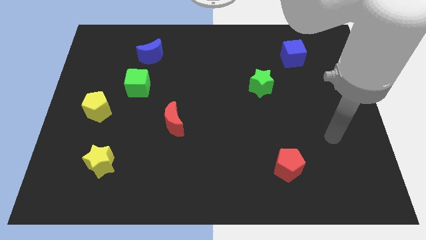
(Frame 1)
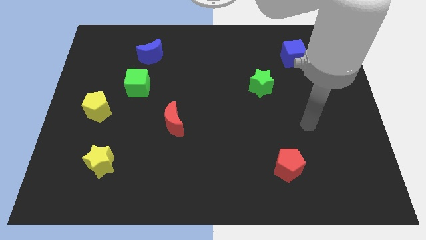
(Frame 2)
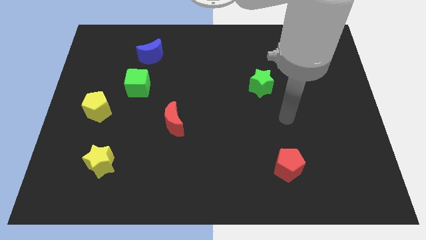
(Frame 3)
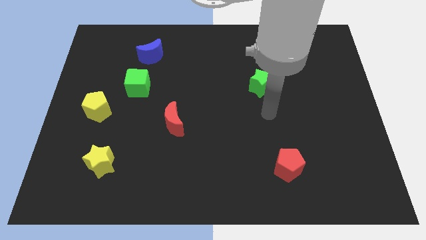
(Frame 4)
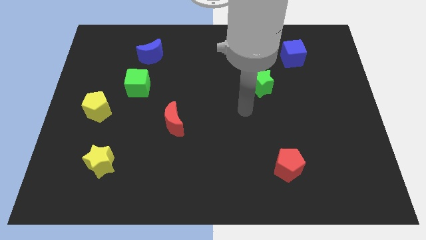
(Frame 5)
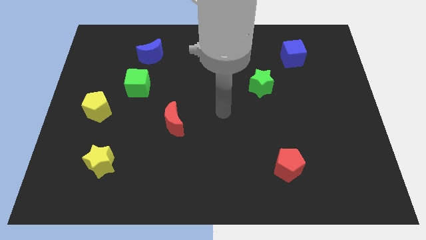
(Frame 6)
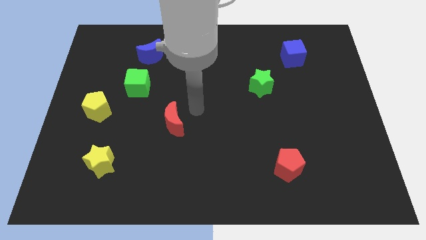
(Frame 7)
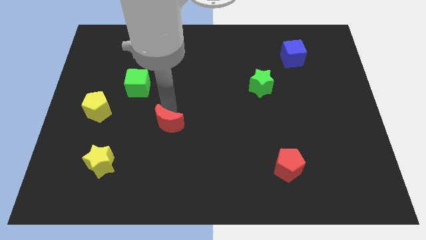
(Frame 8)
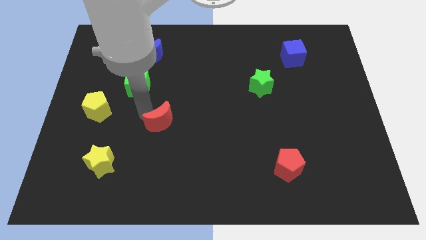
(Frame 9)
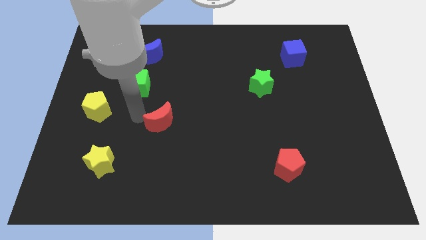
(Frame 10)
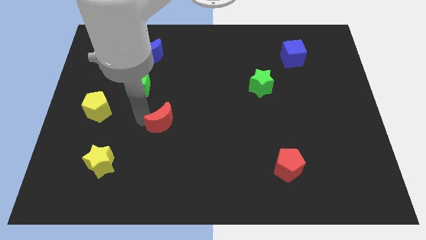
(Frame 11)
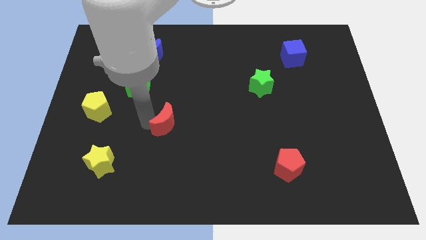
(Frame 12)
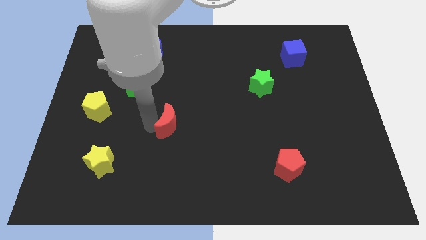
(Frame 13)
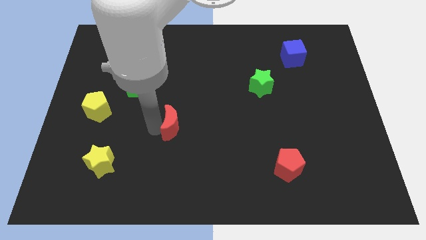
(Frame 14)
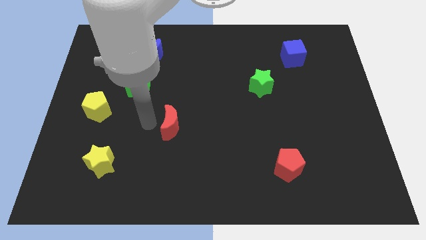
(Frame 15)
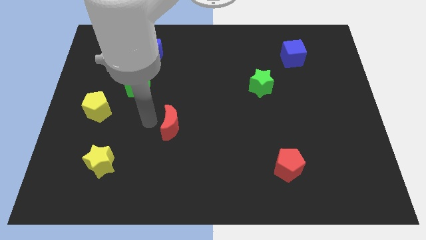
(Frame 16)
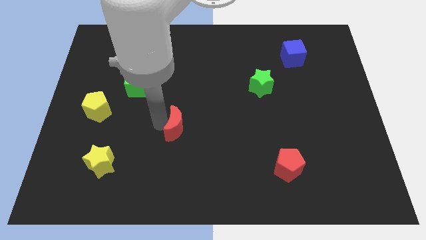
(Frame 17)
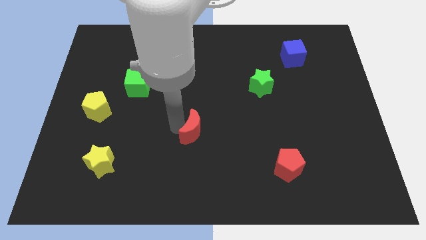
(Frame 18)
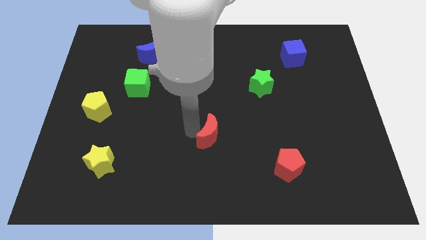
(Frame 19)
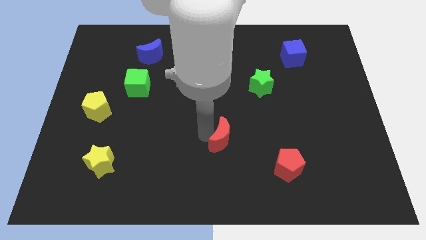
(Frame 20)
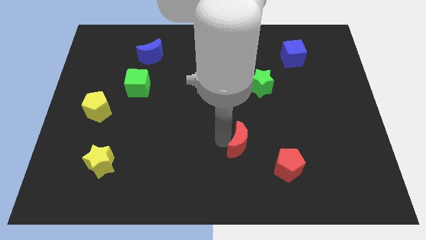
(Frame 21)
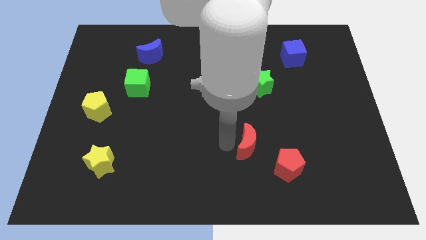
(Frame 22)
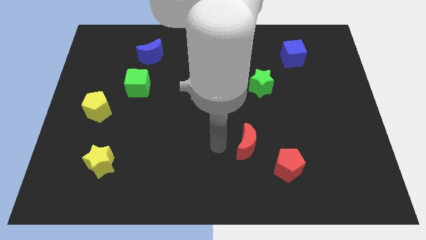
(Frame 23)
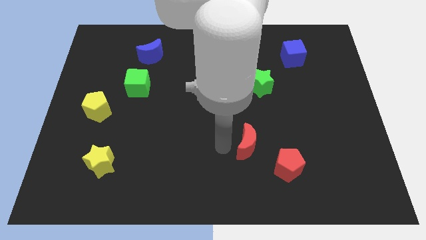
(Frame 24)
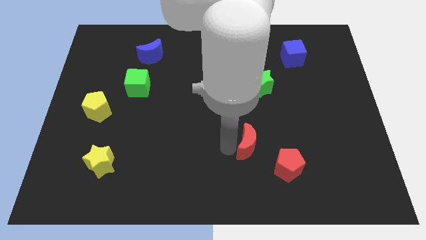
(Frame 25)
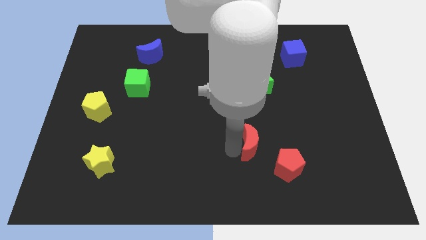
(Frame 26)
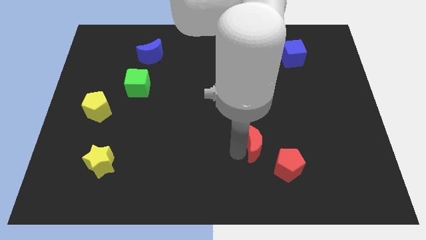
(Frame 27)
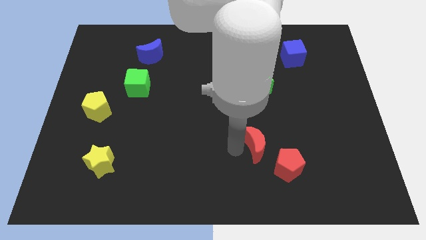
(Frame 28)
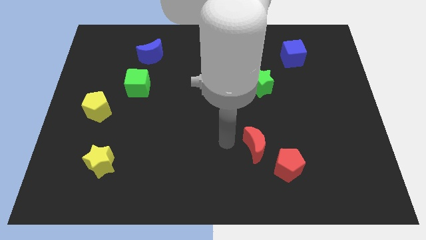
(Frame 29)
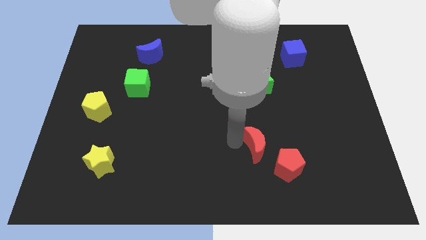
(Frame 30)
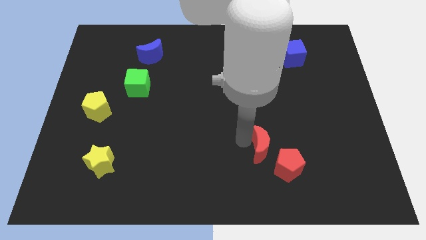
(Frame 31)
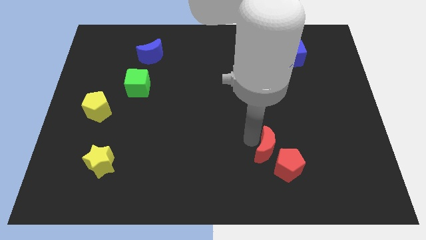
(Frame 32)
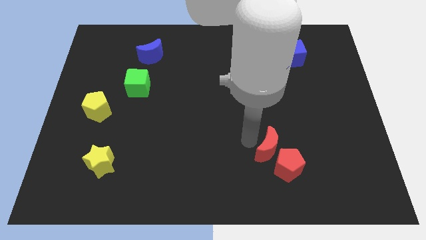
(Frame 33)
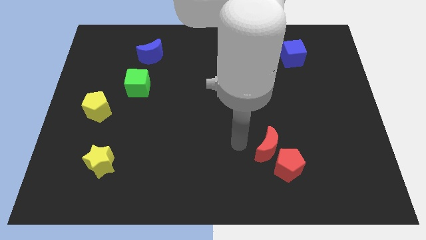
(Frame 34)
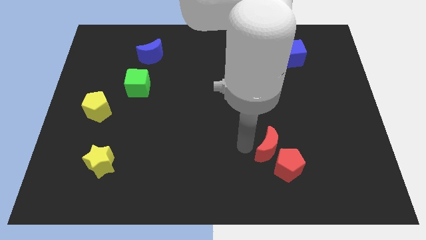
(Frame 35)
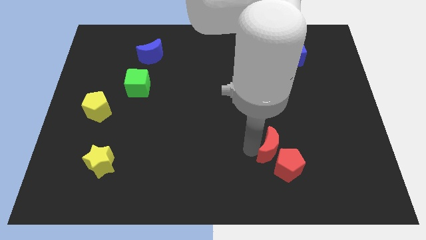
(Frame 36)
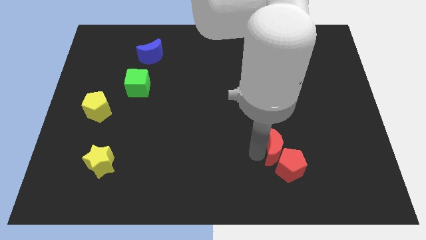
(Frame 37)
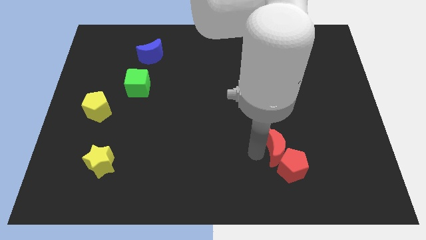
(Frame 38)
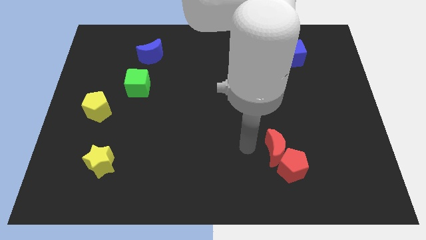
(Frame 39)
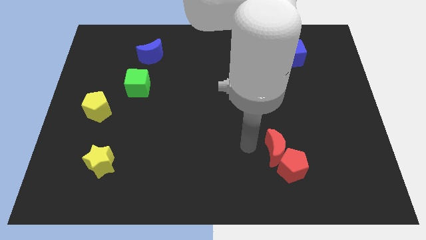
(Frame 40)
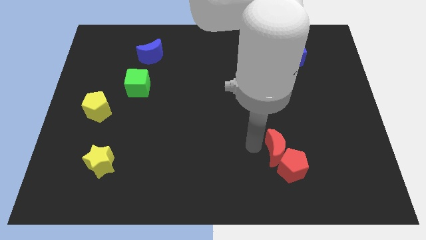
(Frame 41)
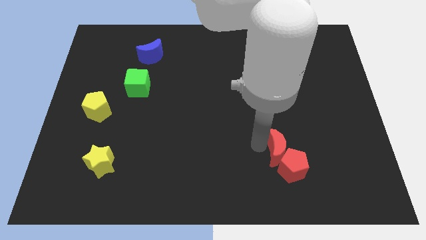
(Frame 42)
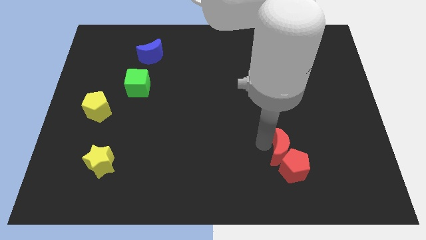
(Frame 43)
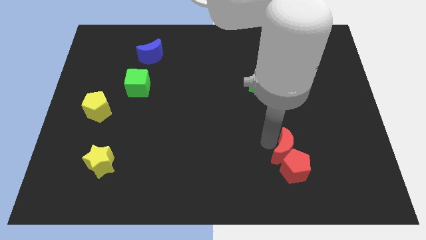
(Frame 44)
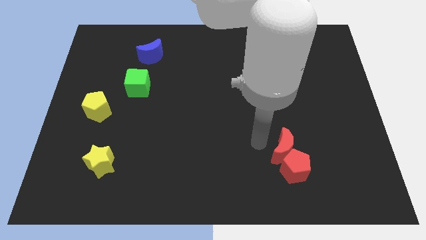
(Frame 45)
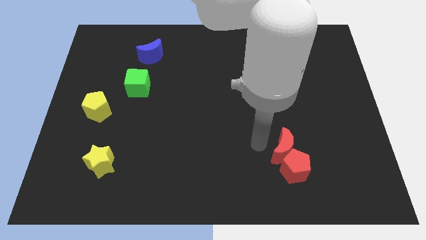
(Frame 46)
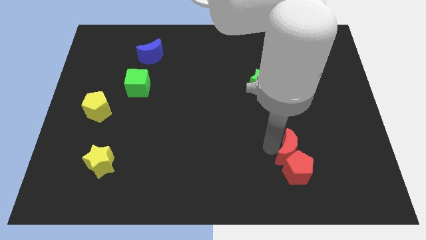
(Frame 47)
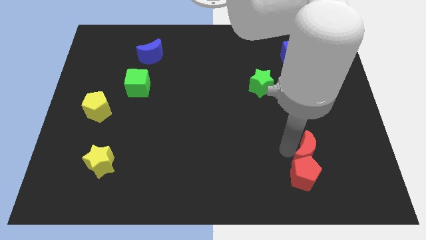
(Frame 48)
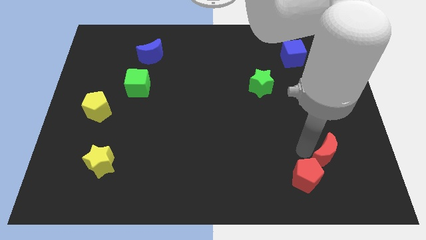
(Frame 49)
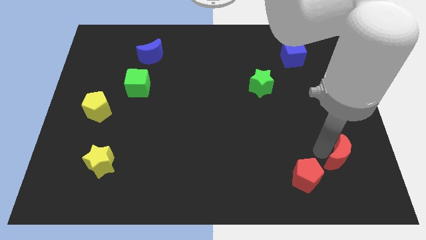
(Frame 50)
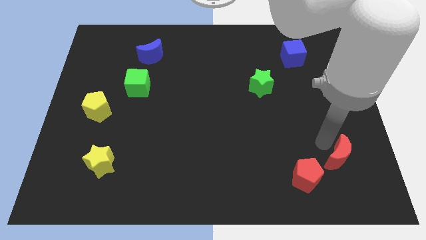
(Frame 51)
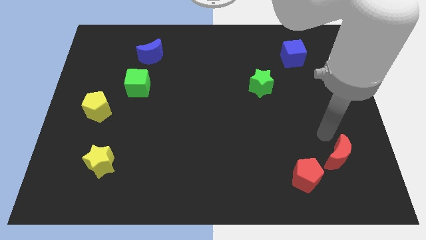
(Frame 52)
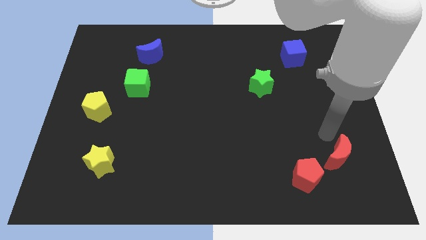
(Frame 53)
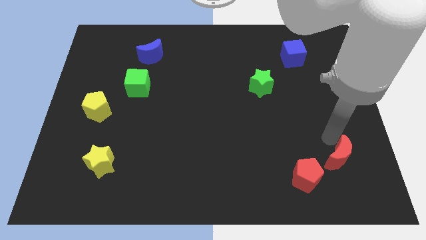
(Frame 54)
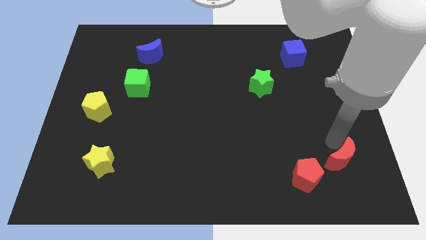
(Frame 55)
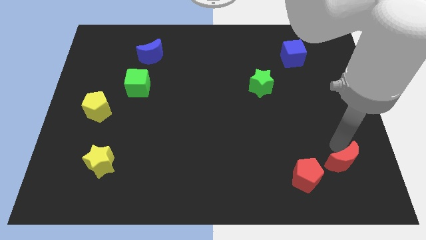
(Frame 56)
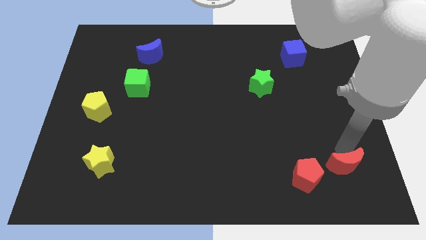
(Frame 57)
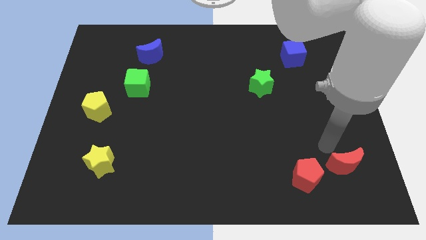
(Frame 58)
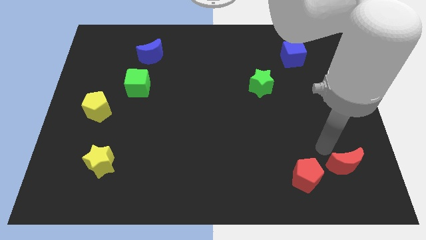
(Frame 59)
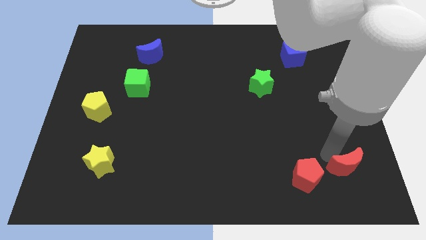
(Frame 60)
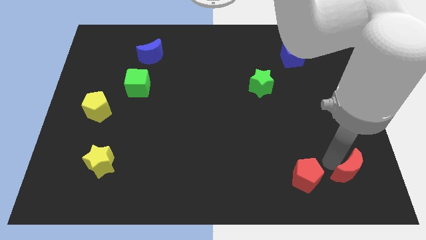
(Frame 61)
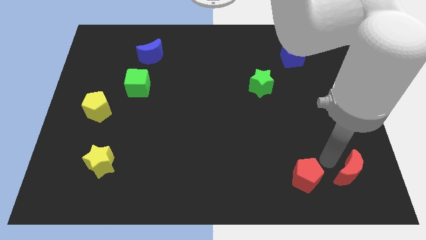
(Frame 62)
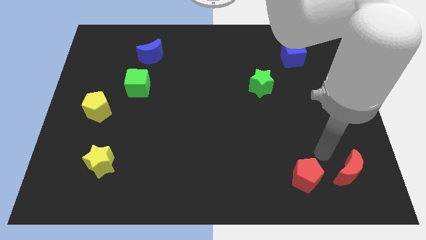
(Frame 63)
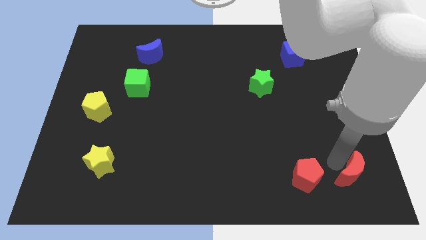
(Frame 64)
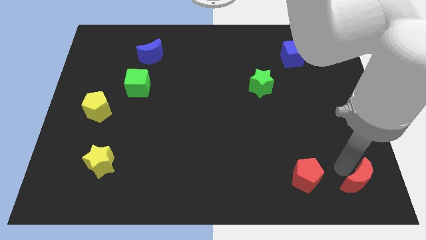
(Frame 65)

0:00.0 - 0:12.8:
move the red moon to the bottom right corner
